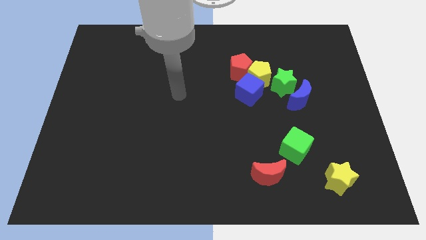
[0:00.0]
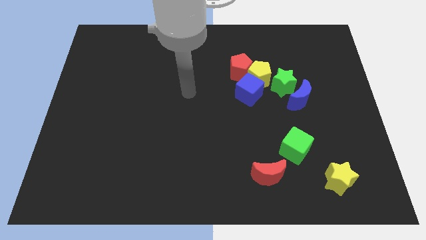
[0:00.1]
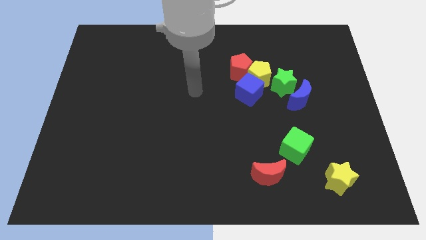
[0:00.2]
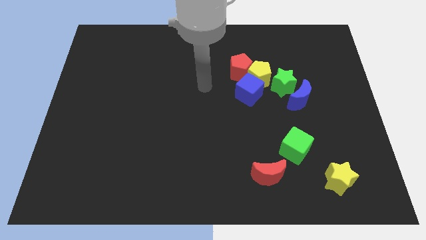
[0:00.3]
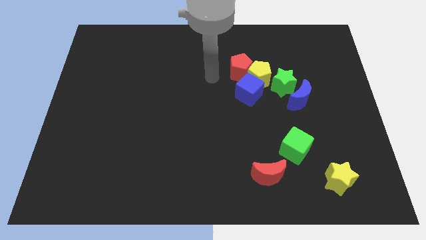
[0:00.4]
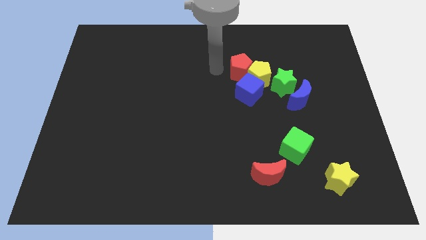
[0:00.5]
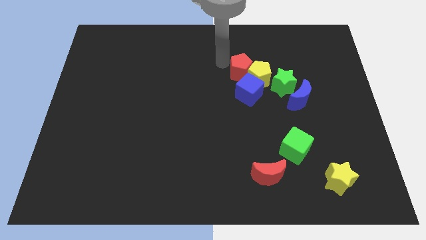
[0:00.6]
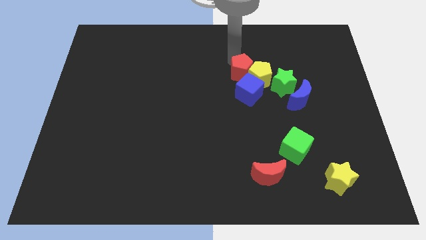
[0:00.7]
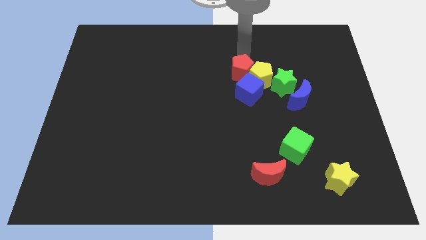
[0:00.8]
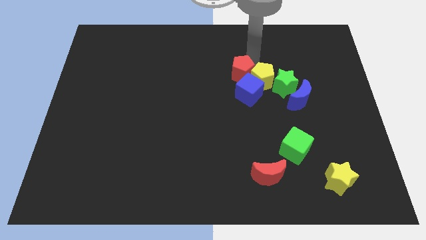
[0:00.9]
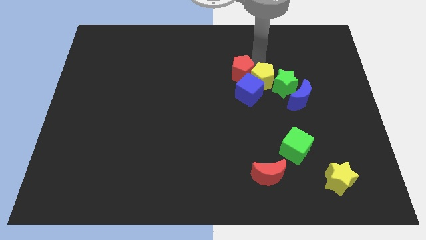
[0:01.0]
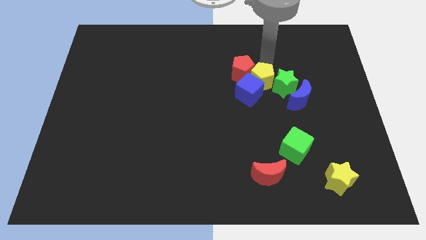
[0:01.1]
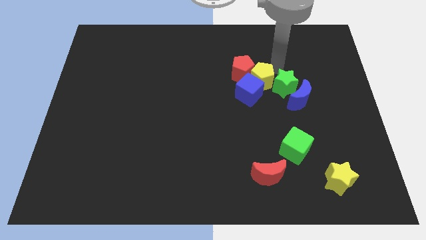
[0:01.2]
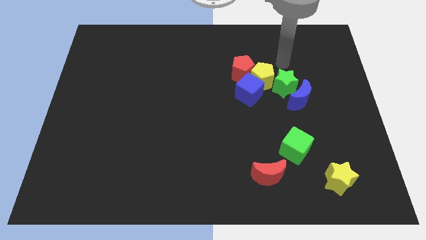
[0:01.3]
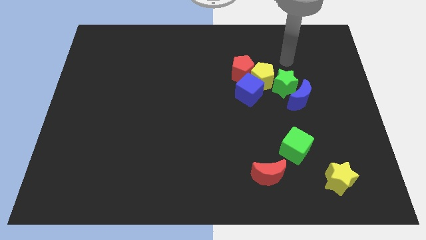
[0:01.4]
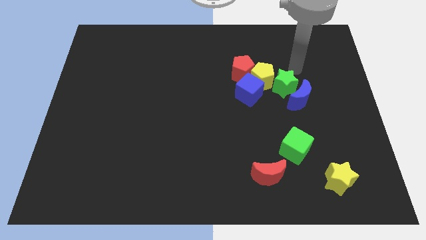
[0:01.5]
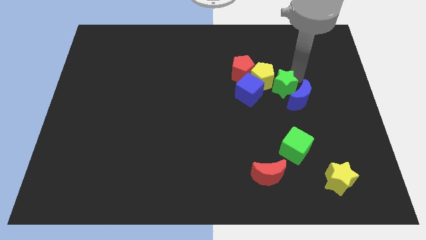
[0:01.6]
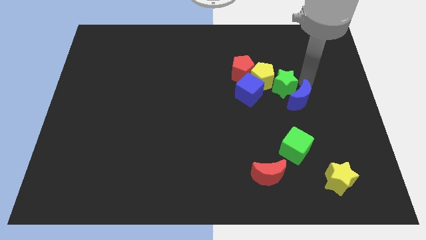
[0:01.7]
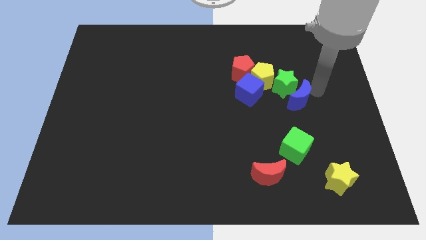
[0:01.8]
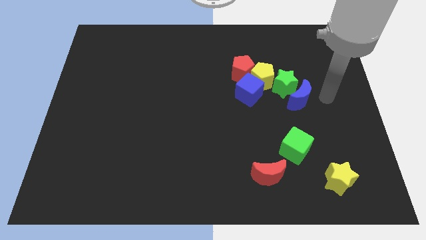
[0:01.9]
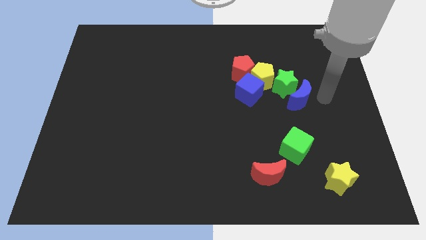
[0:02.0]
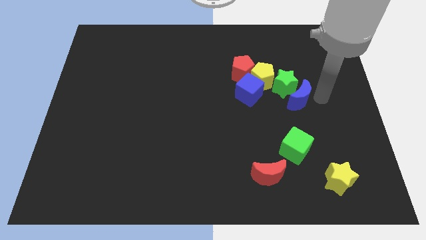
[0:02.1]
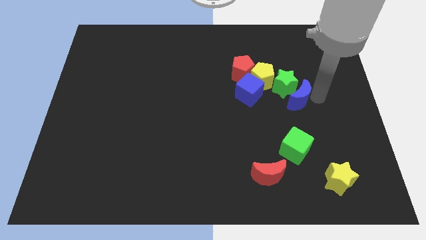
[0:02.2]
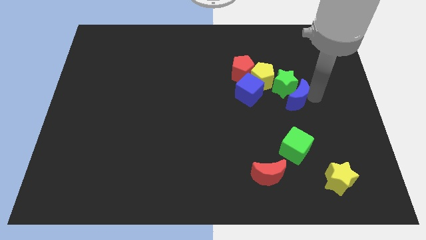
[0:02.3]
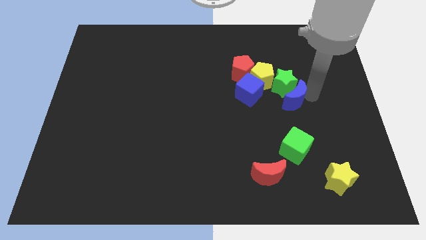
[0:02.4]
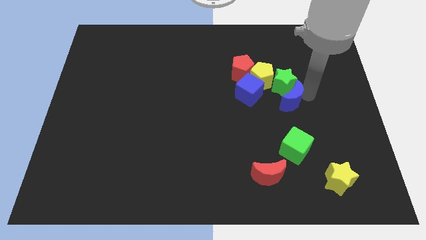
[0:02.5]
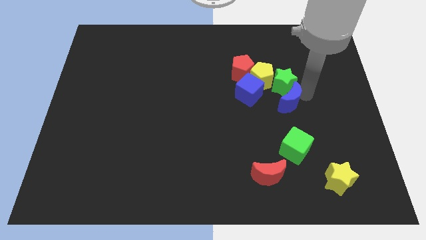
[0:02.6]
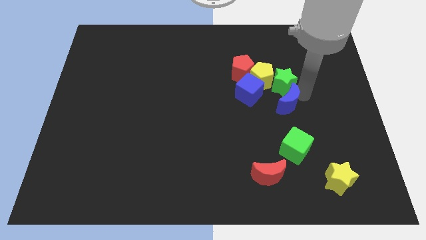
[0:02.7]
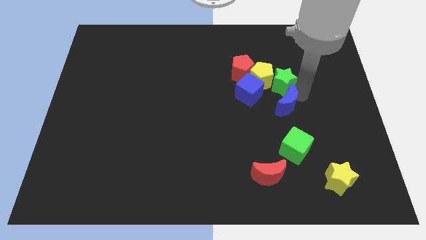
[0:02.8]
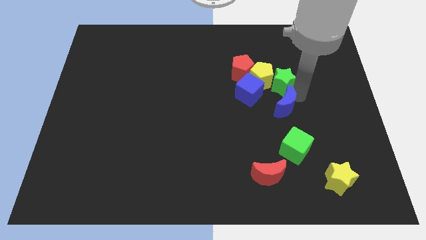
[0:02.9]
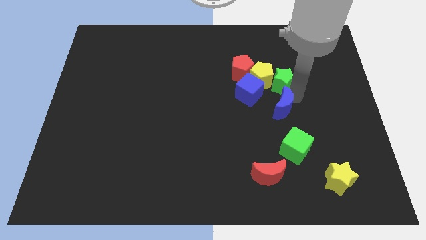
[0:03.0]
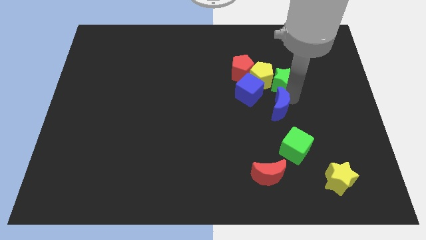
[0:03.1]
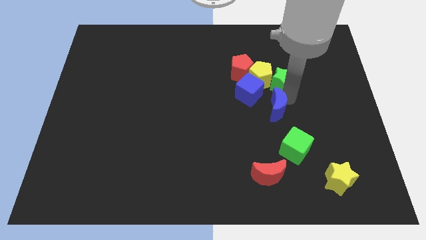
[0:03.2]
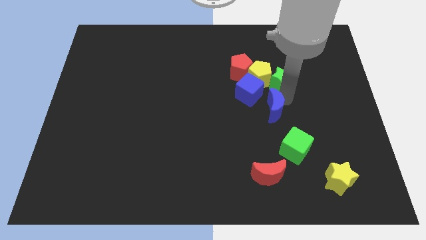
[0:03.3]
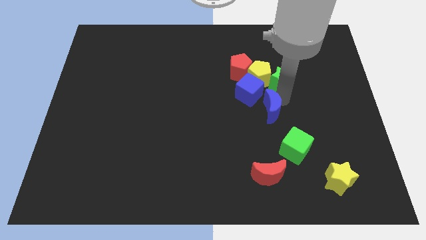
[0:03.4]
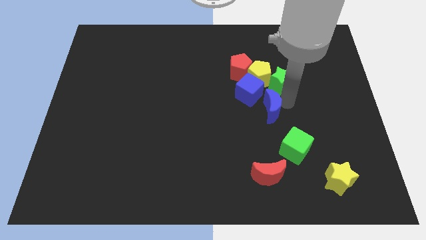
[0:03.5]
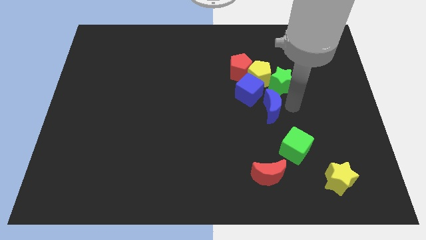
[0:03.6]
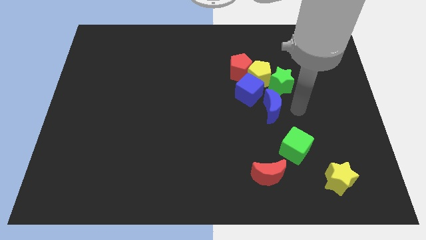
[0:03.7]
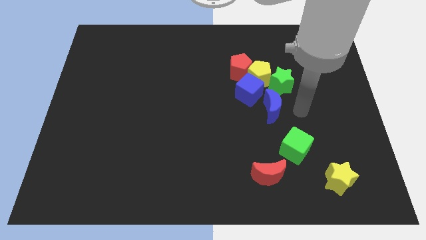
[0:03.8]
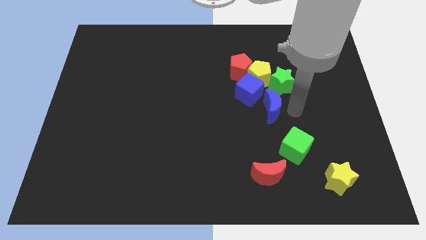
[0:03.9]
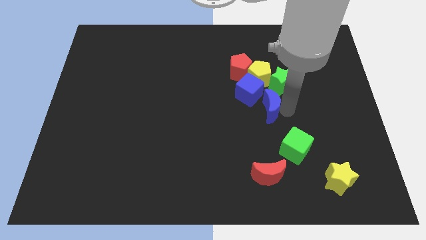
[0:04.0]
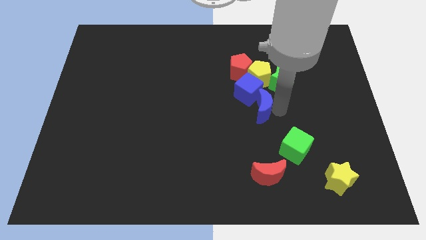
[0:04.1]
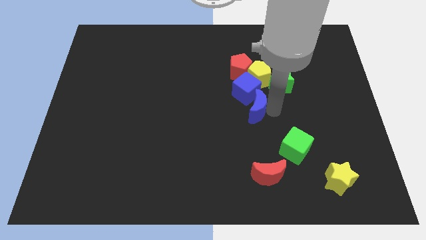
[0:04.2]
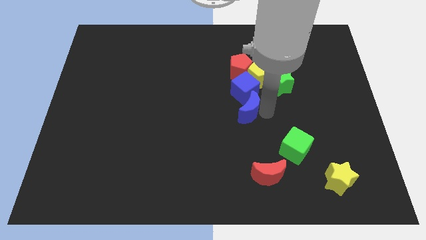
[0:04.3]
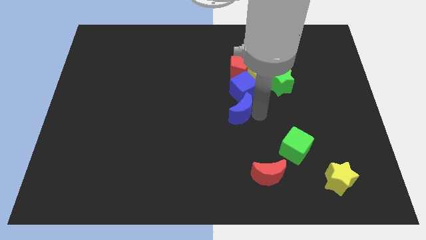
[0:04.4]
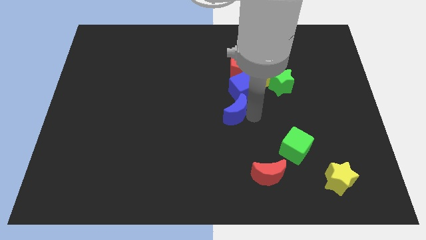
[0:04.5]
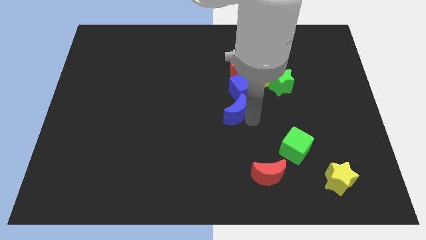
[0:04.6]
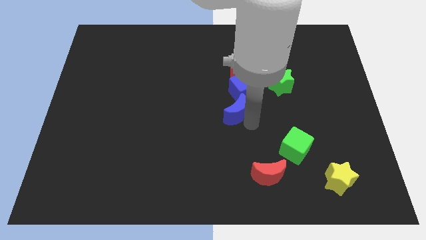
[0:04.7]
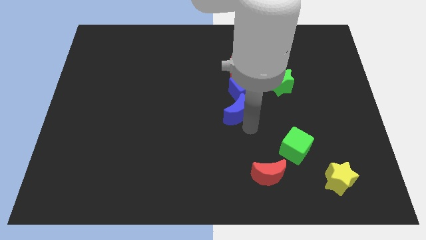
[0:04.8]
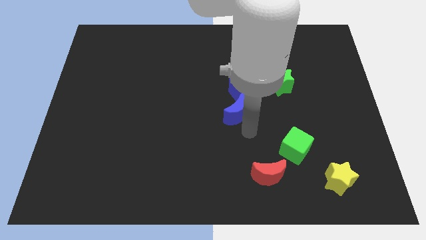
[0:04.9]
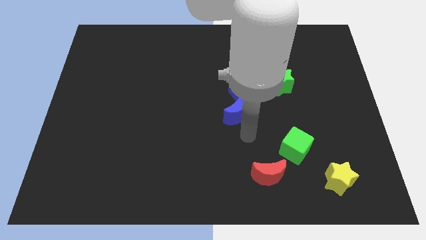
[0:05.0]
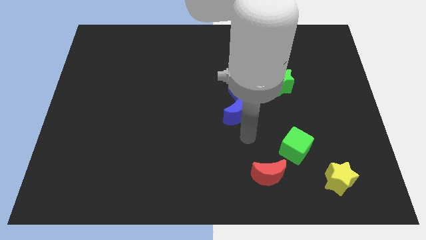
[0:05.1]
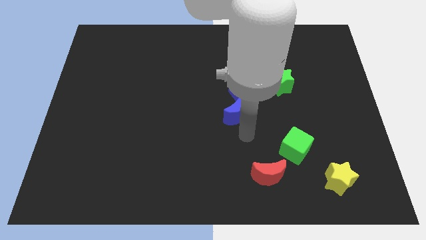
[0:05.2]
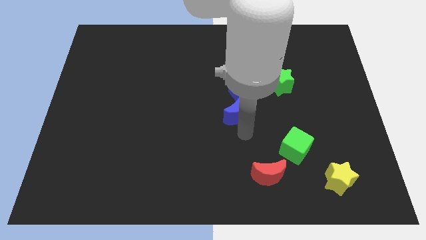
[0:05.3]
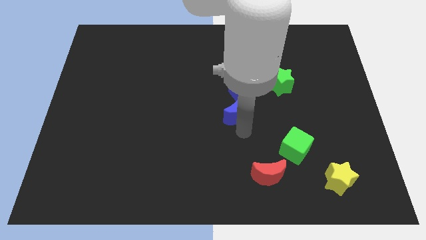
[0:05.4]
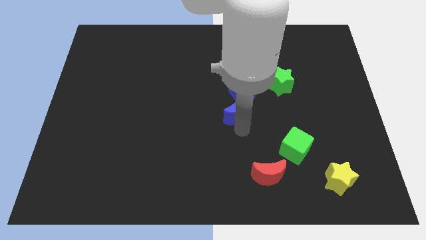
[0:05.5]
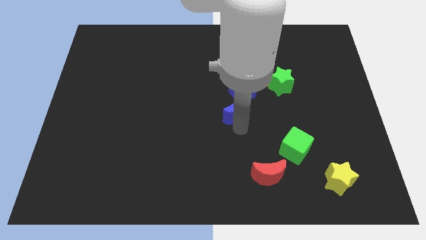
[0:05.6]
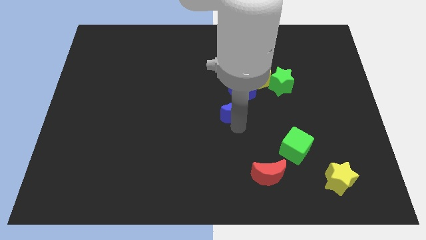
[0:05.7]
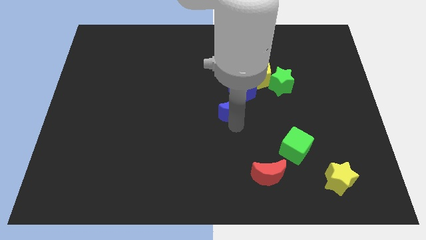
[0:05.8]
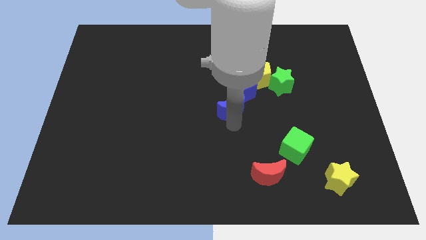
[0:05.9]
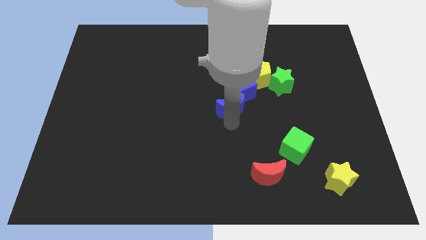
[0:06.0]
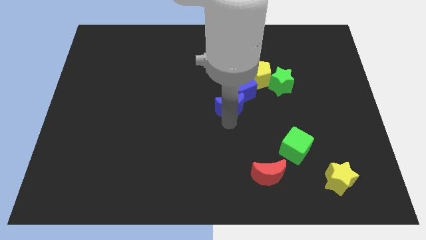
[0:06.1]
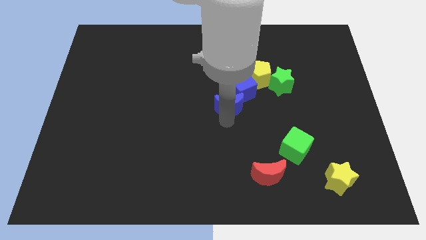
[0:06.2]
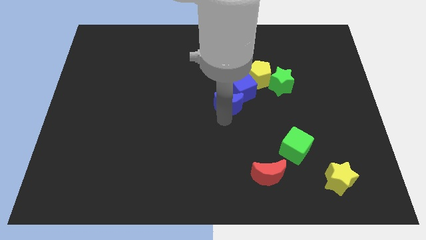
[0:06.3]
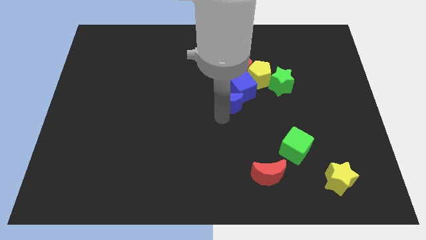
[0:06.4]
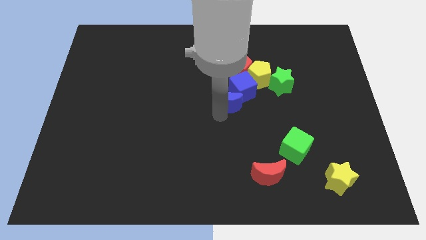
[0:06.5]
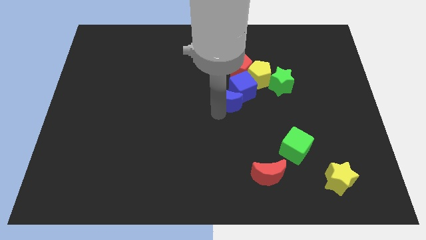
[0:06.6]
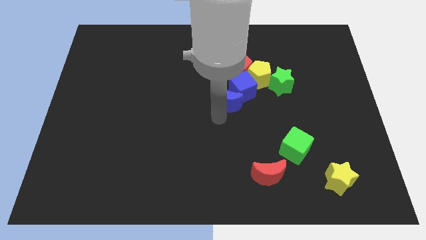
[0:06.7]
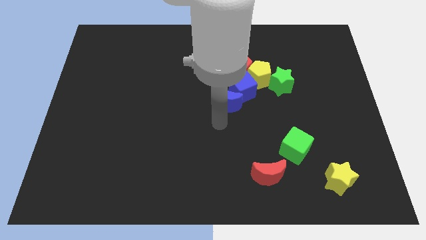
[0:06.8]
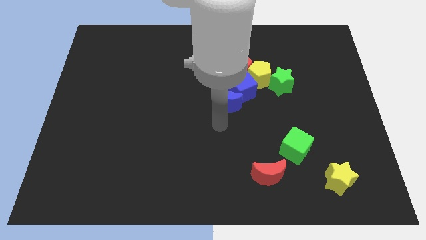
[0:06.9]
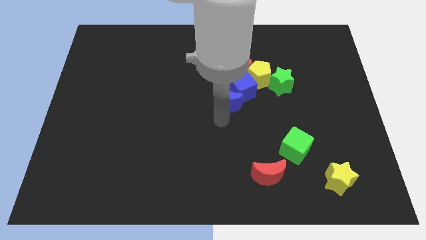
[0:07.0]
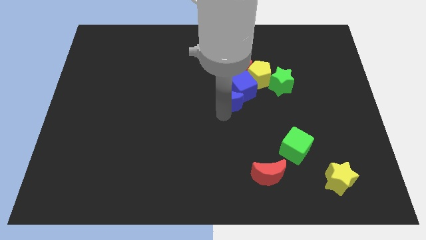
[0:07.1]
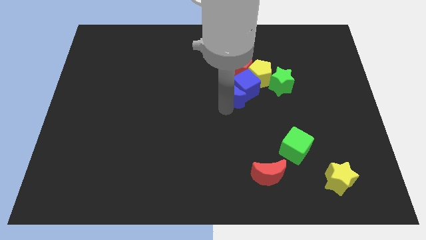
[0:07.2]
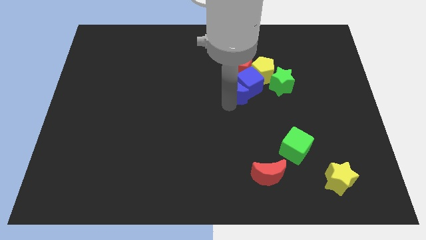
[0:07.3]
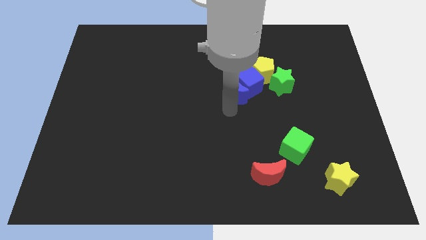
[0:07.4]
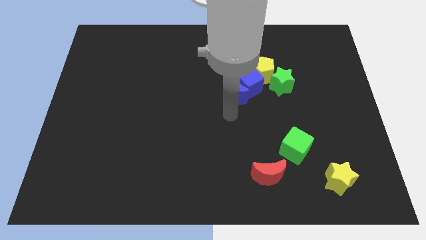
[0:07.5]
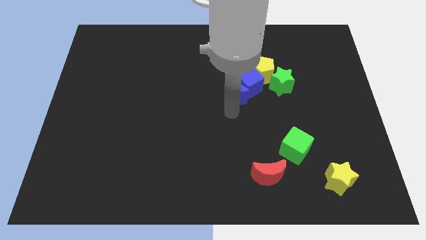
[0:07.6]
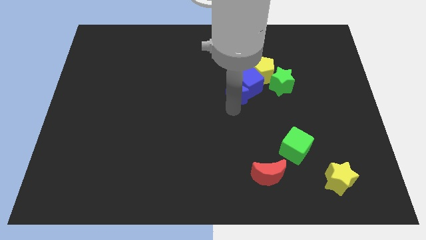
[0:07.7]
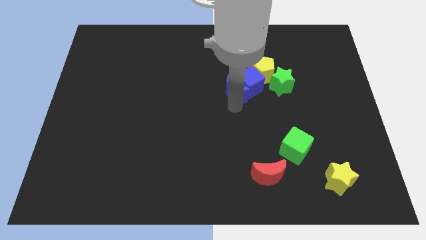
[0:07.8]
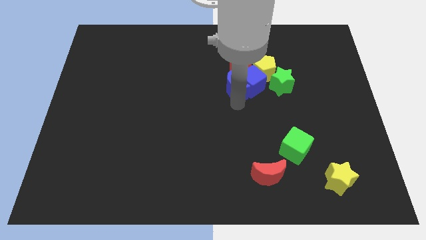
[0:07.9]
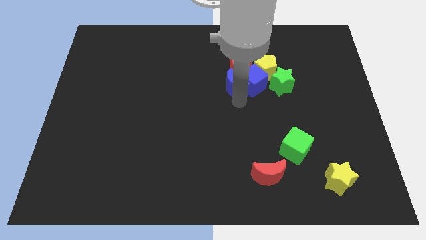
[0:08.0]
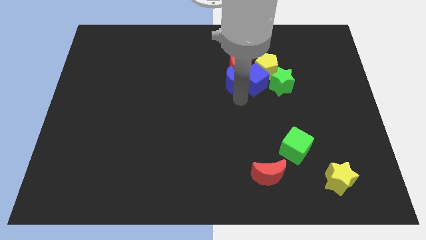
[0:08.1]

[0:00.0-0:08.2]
move the blue moon towards the red pentagon
